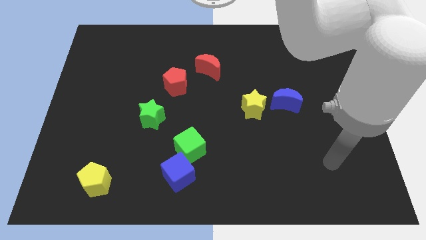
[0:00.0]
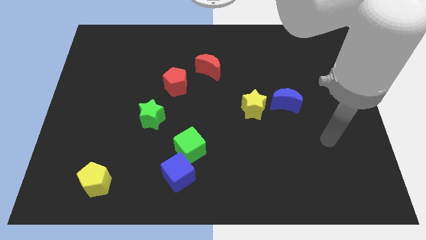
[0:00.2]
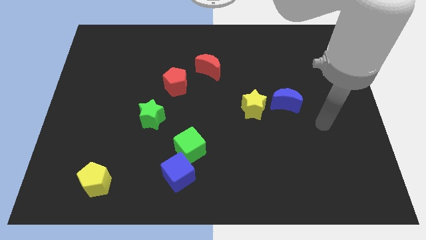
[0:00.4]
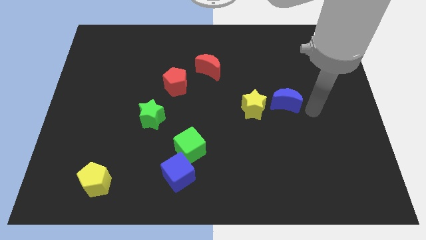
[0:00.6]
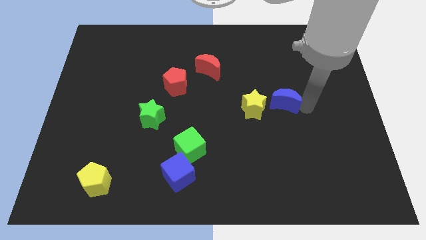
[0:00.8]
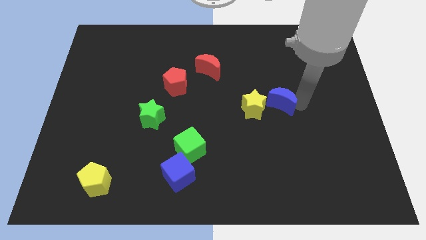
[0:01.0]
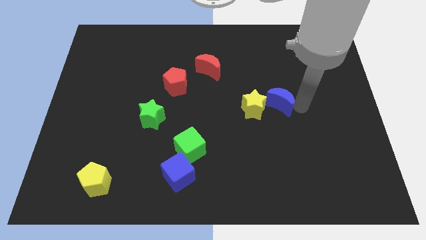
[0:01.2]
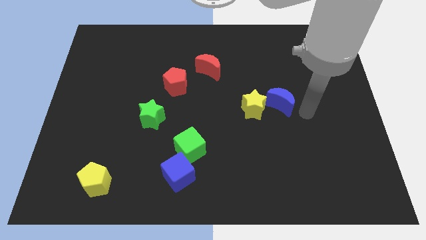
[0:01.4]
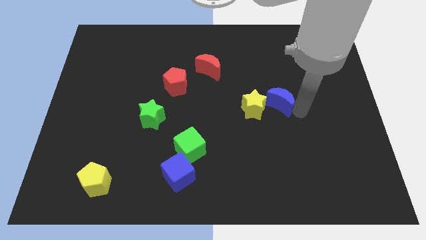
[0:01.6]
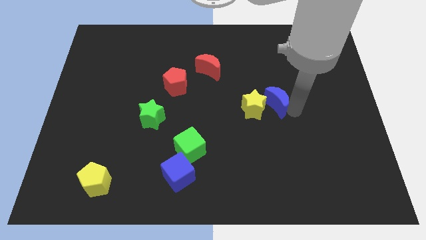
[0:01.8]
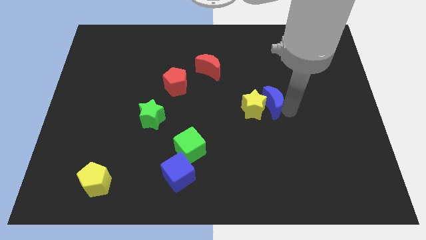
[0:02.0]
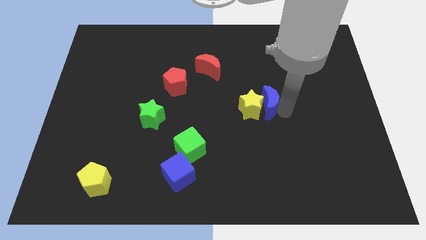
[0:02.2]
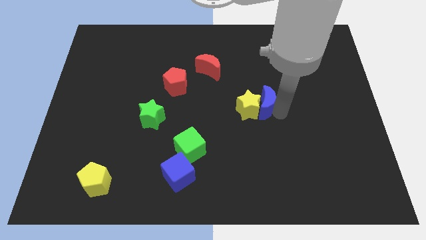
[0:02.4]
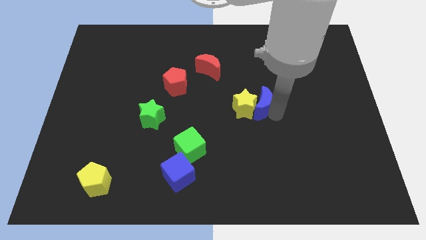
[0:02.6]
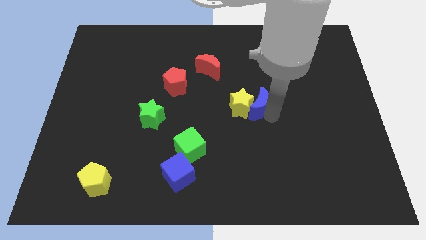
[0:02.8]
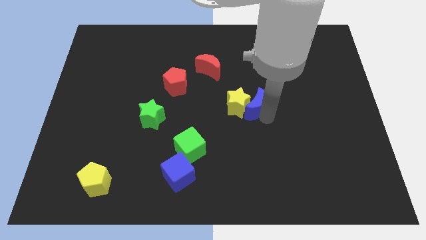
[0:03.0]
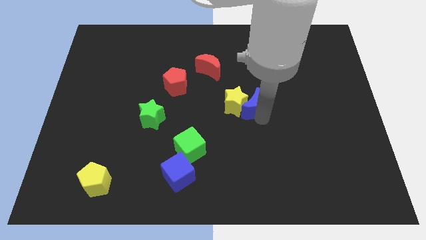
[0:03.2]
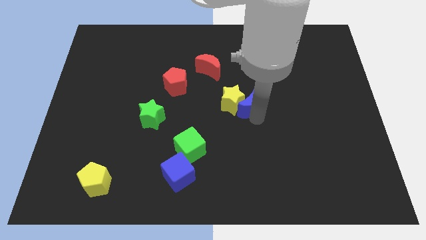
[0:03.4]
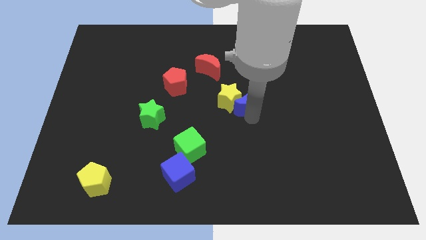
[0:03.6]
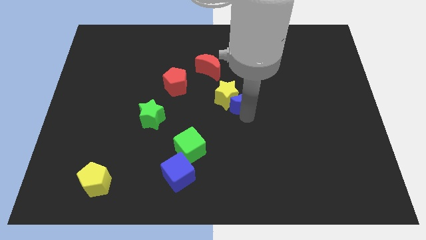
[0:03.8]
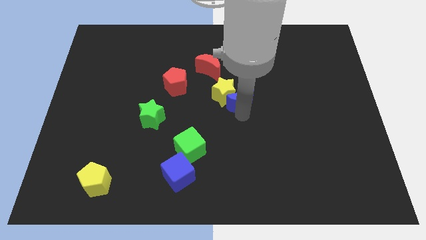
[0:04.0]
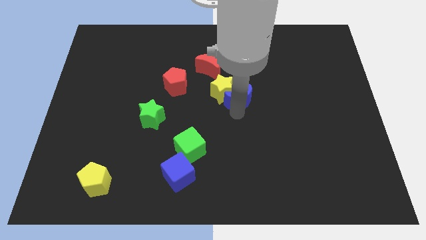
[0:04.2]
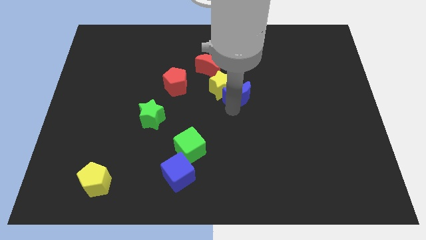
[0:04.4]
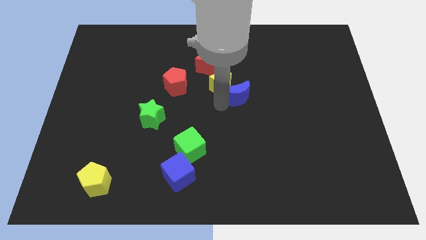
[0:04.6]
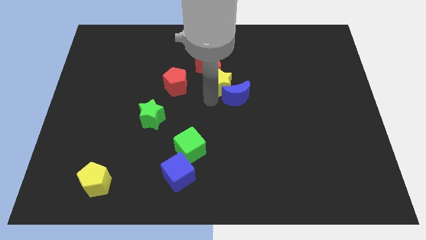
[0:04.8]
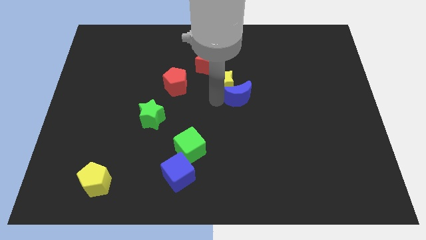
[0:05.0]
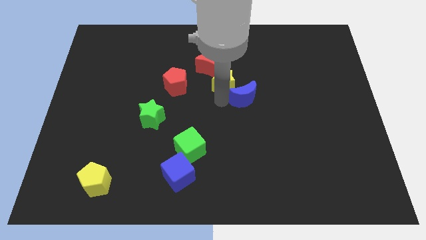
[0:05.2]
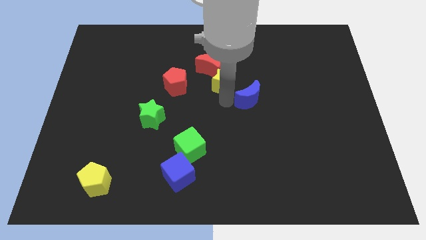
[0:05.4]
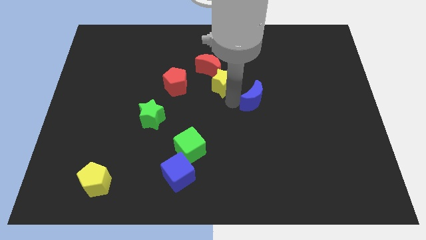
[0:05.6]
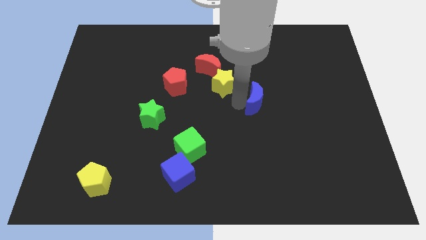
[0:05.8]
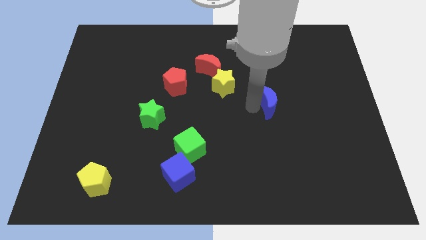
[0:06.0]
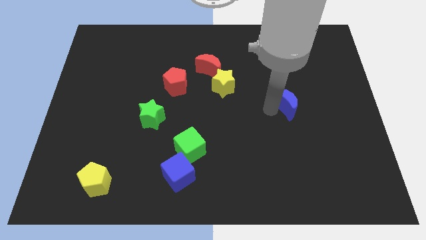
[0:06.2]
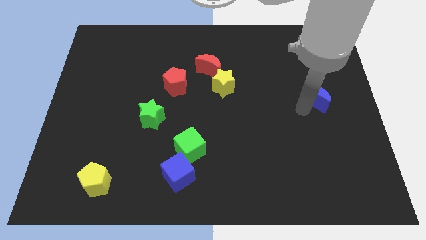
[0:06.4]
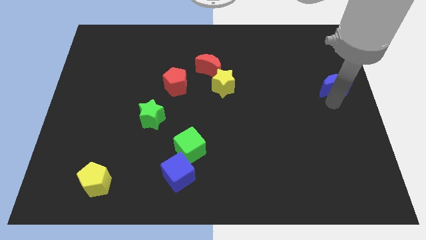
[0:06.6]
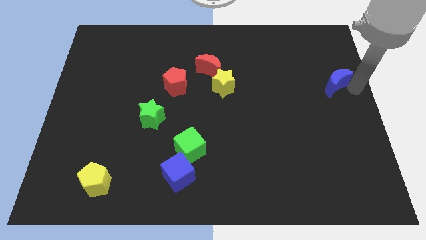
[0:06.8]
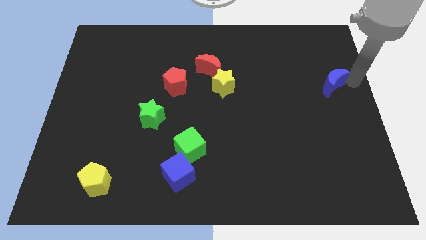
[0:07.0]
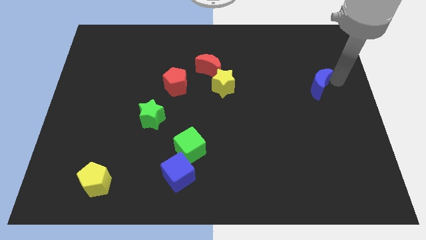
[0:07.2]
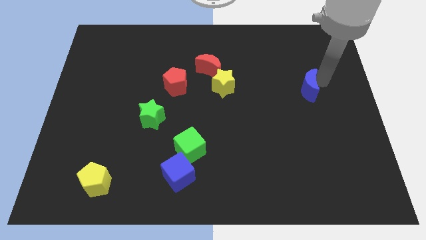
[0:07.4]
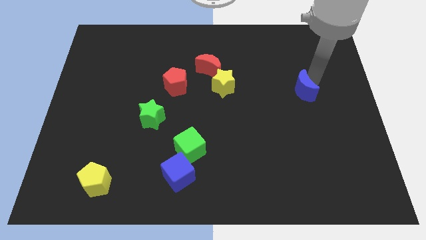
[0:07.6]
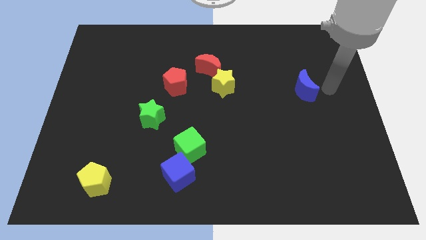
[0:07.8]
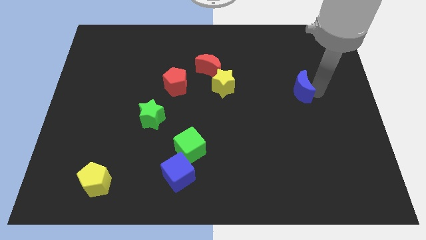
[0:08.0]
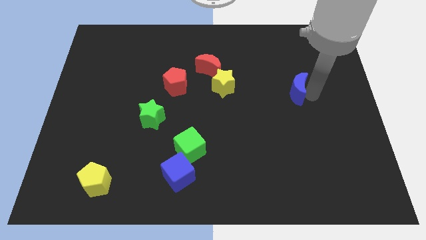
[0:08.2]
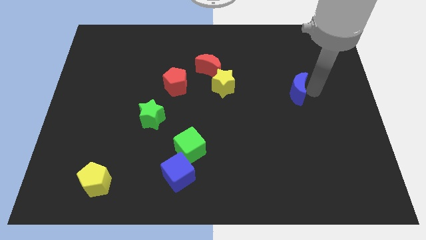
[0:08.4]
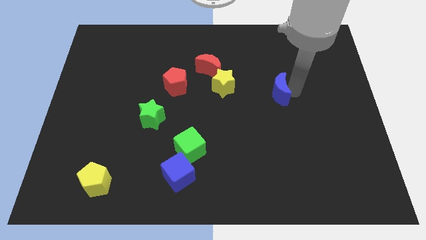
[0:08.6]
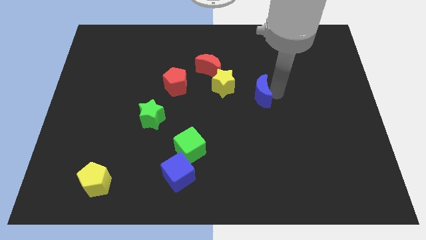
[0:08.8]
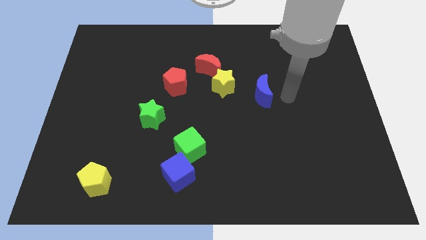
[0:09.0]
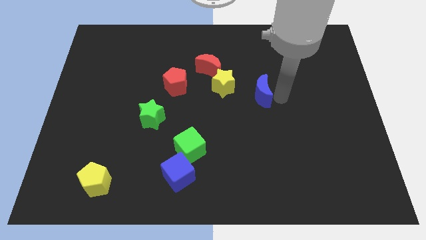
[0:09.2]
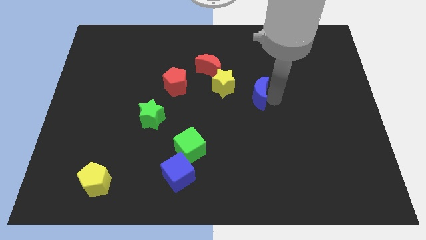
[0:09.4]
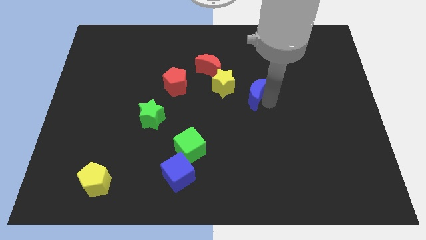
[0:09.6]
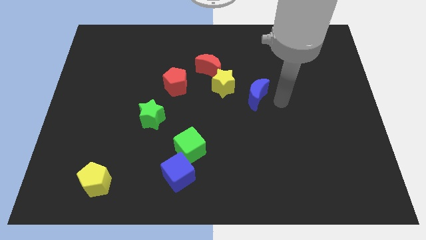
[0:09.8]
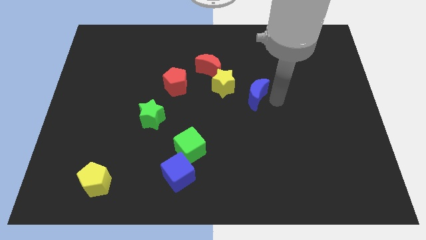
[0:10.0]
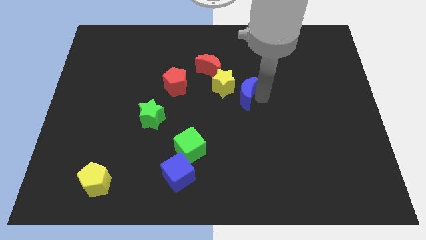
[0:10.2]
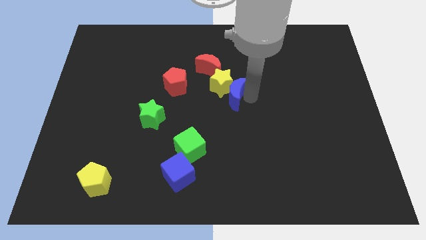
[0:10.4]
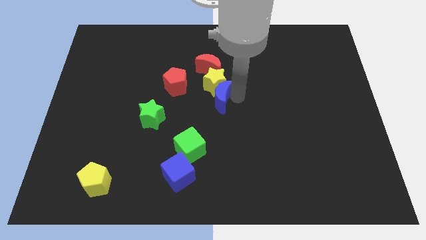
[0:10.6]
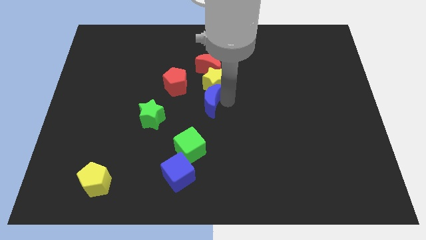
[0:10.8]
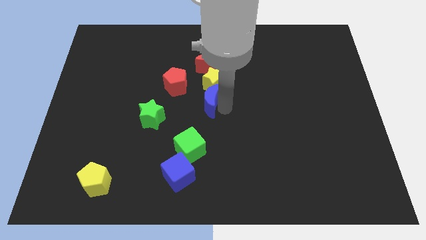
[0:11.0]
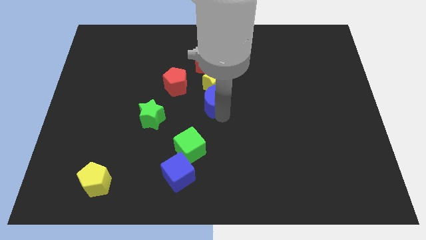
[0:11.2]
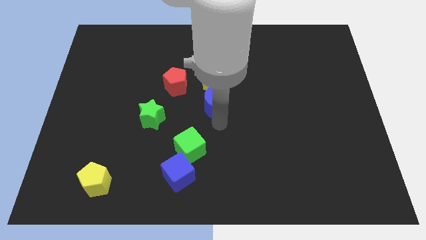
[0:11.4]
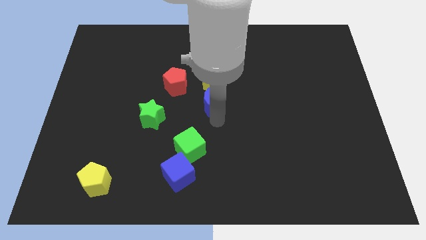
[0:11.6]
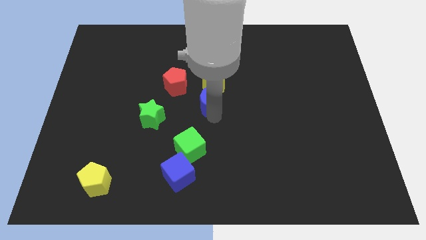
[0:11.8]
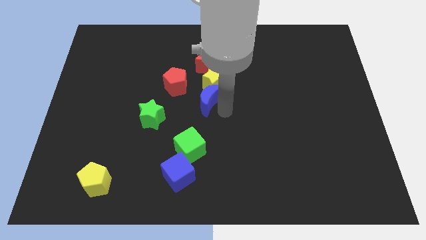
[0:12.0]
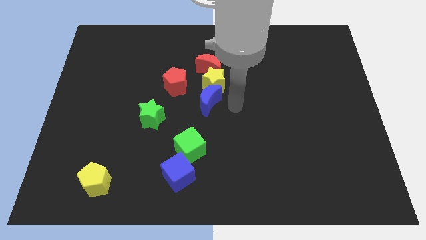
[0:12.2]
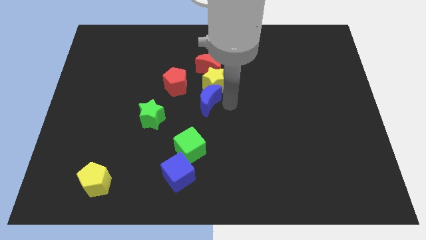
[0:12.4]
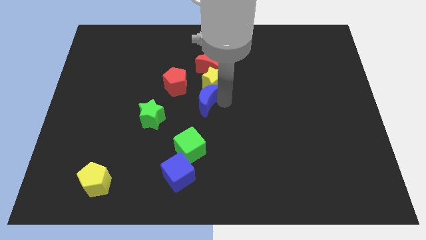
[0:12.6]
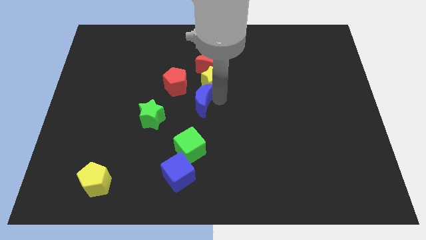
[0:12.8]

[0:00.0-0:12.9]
slide the blue moon left

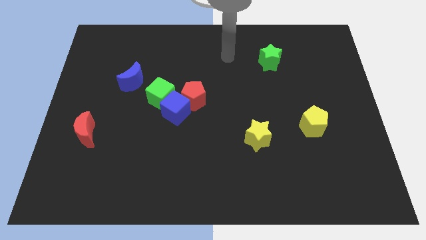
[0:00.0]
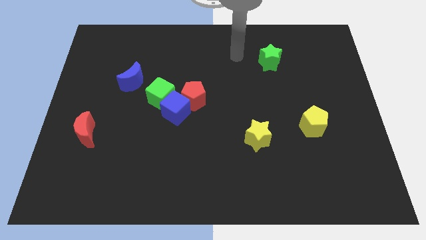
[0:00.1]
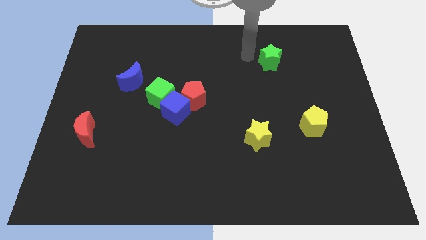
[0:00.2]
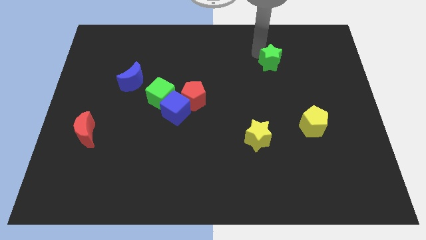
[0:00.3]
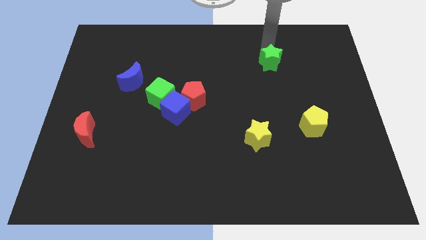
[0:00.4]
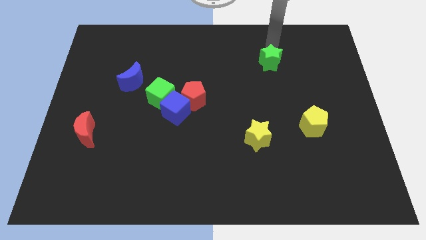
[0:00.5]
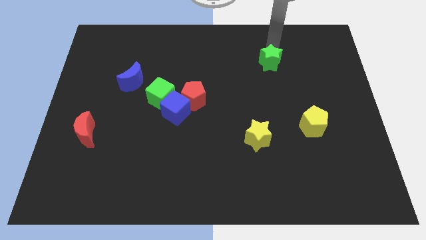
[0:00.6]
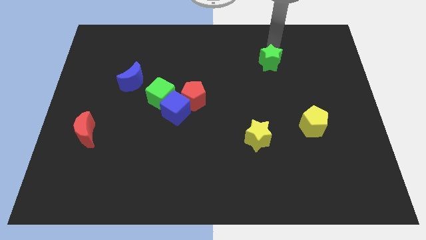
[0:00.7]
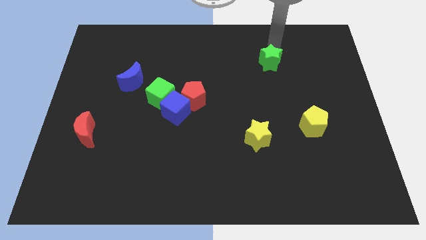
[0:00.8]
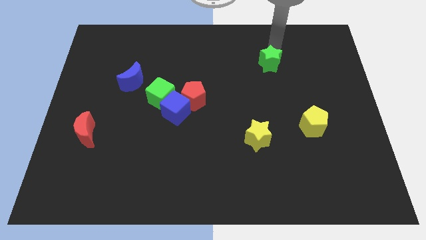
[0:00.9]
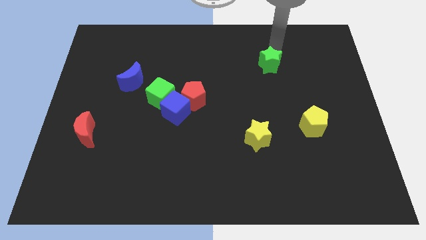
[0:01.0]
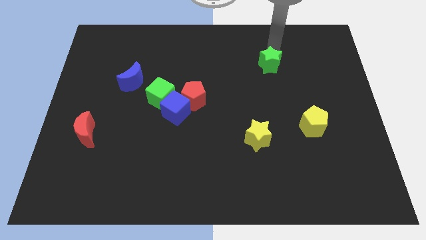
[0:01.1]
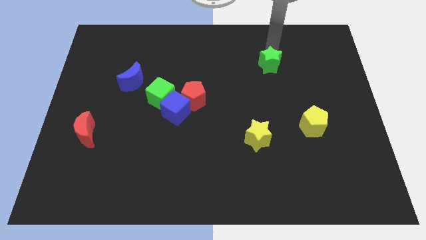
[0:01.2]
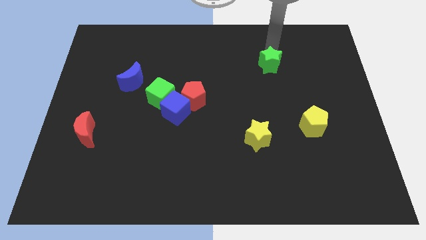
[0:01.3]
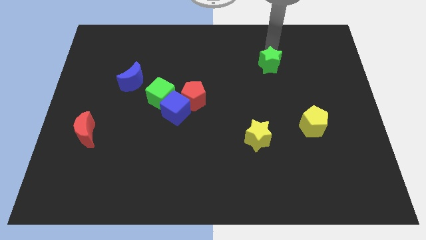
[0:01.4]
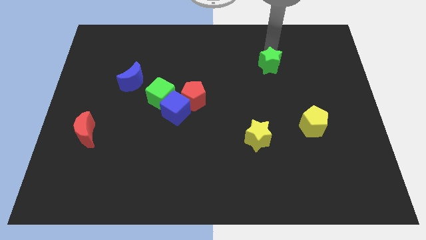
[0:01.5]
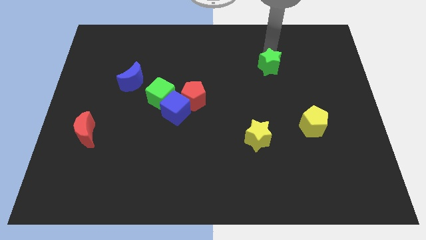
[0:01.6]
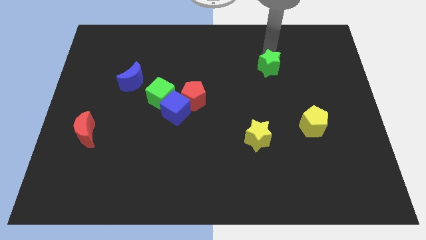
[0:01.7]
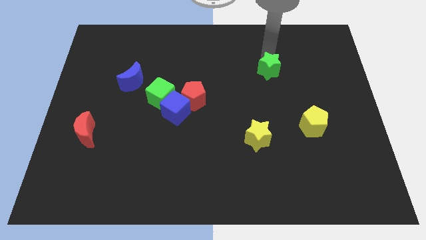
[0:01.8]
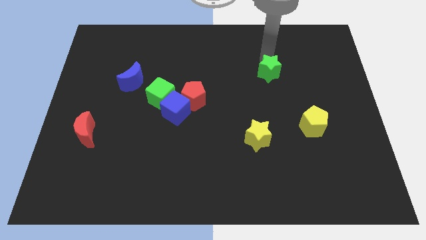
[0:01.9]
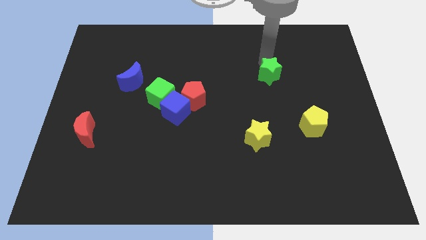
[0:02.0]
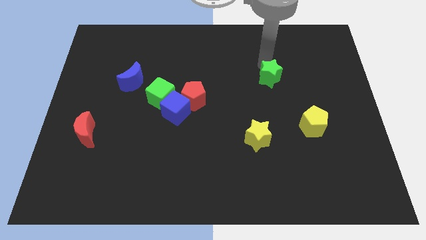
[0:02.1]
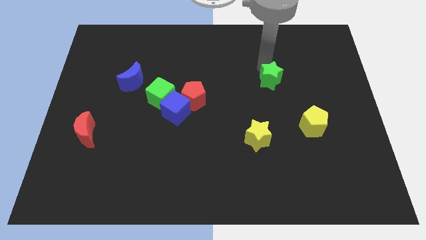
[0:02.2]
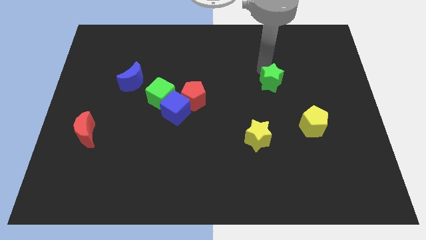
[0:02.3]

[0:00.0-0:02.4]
slightly move the green star downwards
